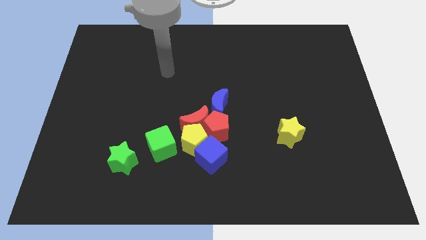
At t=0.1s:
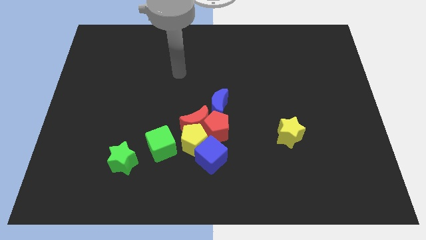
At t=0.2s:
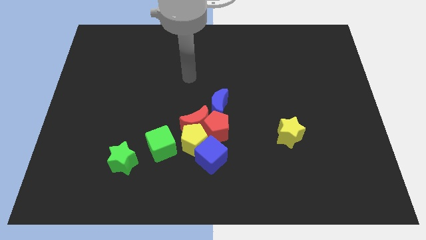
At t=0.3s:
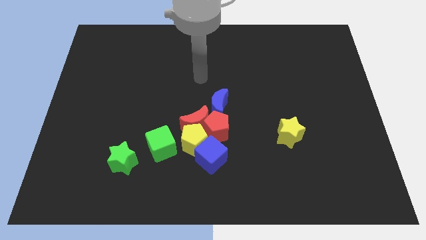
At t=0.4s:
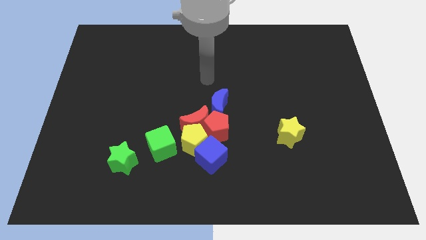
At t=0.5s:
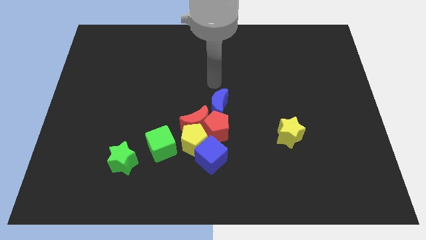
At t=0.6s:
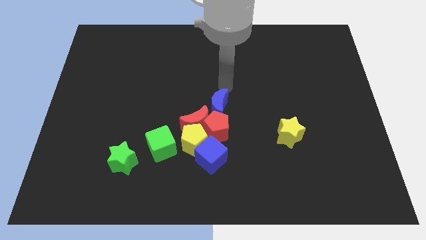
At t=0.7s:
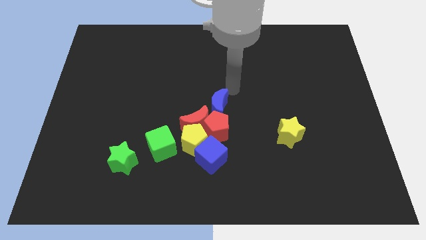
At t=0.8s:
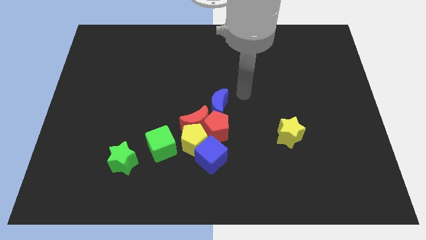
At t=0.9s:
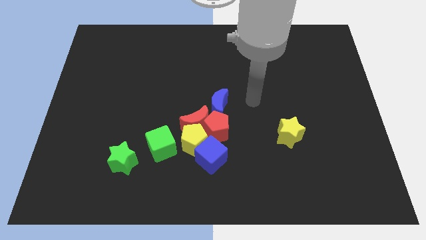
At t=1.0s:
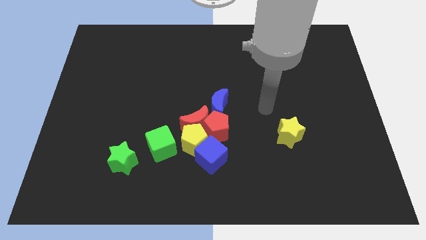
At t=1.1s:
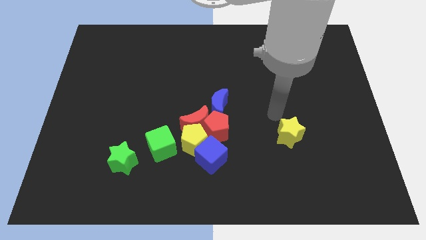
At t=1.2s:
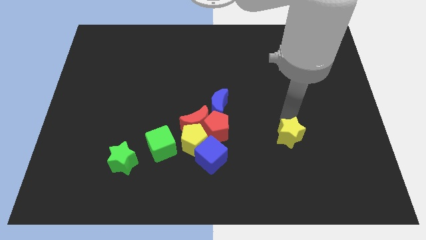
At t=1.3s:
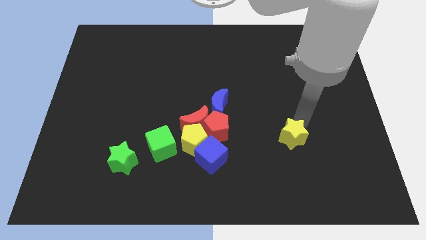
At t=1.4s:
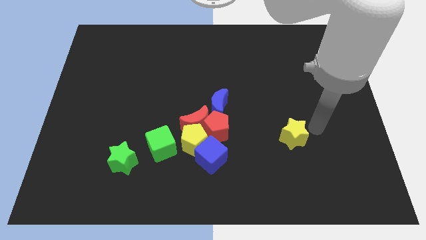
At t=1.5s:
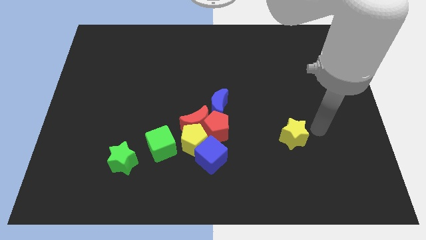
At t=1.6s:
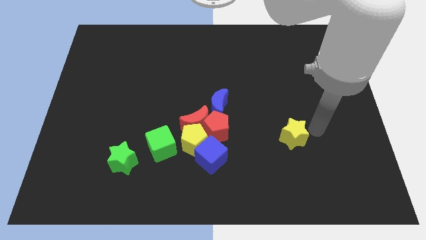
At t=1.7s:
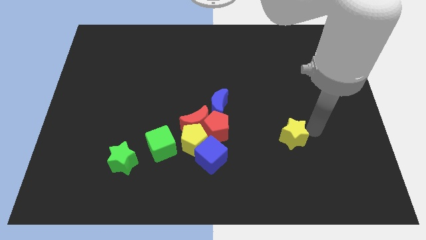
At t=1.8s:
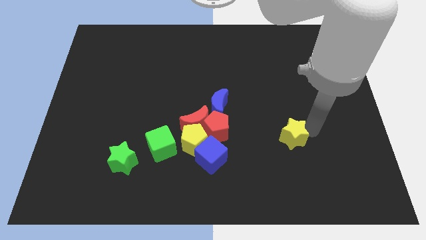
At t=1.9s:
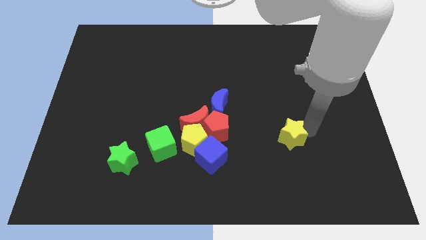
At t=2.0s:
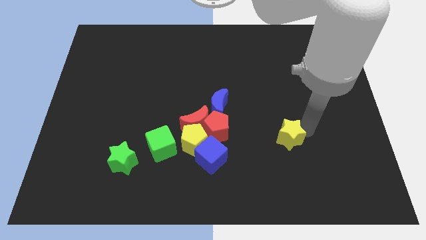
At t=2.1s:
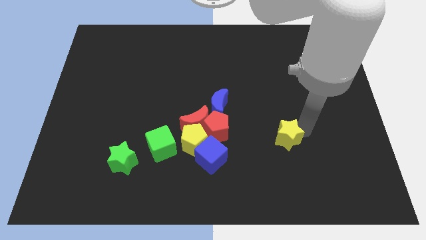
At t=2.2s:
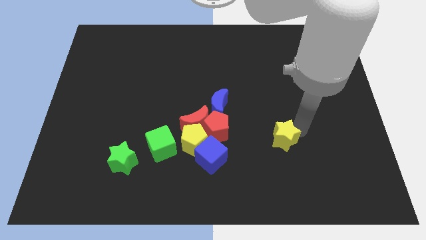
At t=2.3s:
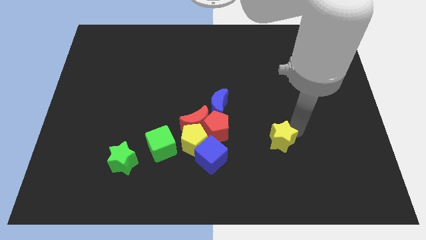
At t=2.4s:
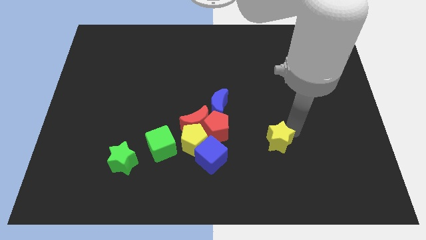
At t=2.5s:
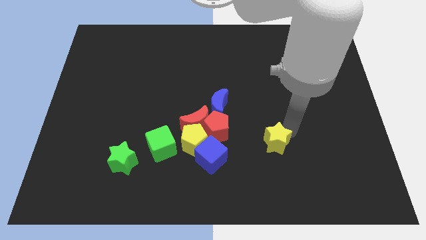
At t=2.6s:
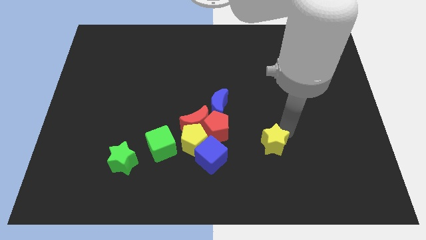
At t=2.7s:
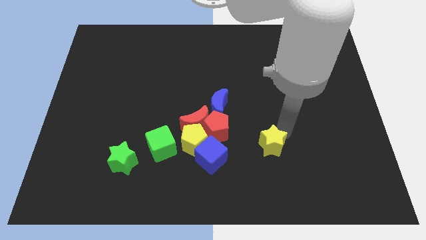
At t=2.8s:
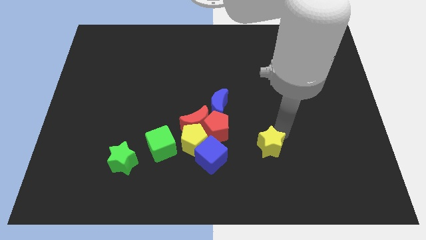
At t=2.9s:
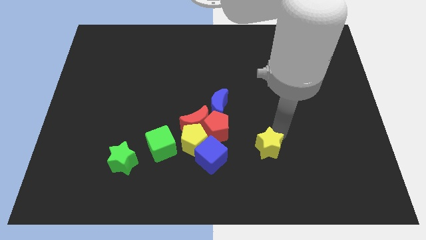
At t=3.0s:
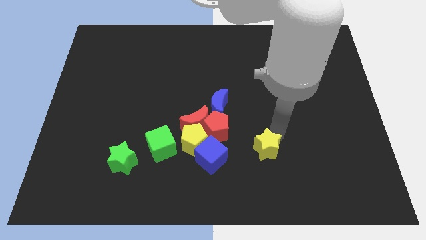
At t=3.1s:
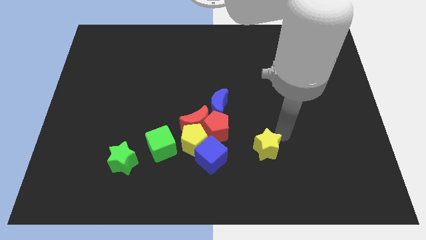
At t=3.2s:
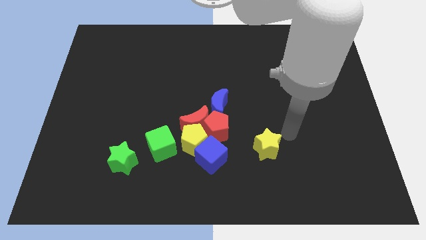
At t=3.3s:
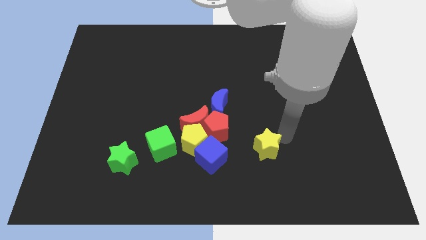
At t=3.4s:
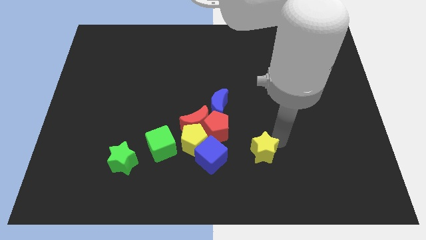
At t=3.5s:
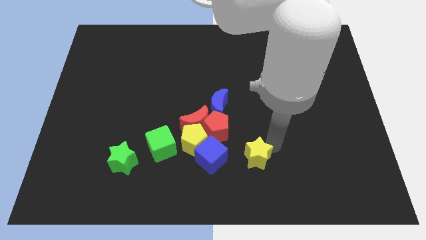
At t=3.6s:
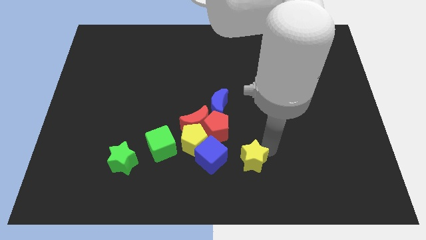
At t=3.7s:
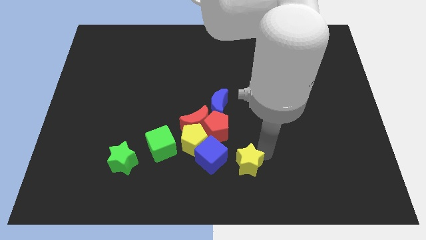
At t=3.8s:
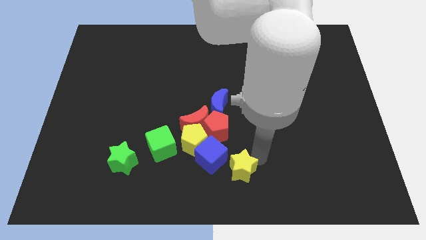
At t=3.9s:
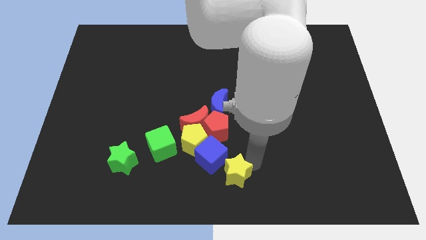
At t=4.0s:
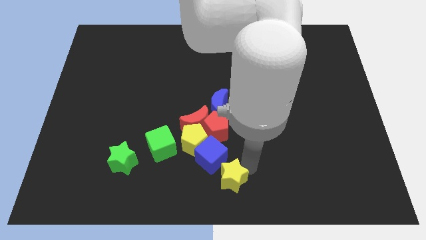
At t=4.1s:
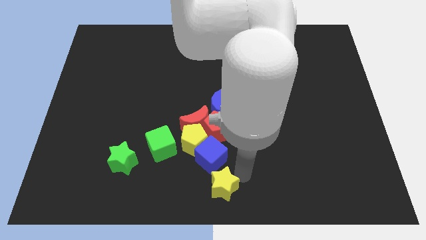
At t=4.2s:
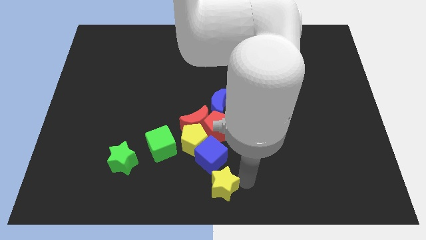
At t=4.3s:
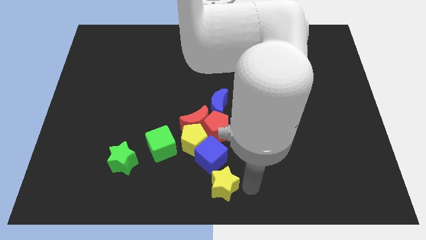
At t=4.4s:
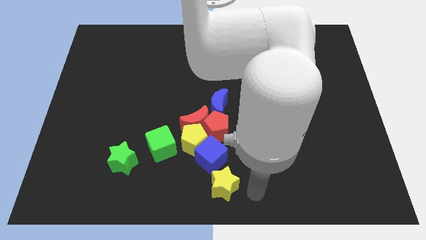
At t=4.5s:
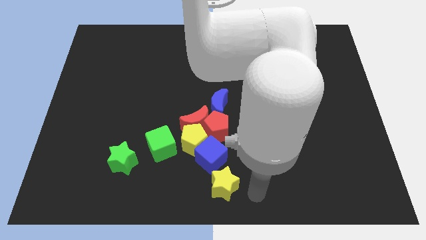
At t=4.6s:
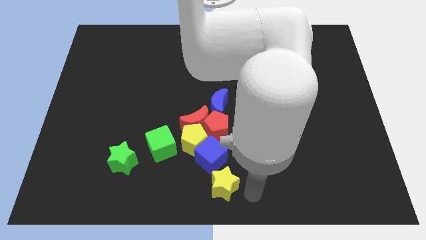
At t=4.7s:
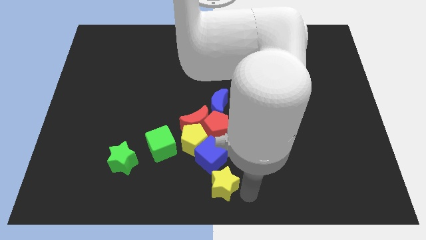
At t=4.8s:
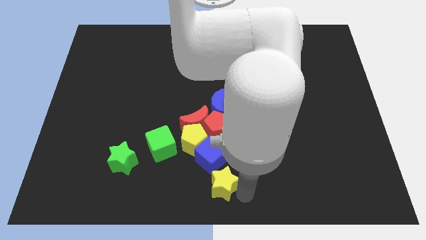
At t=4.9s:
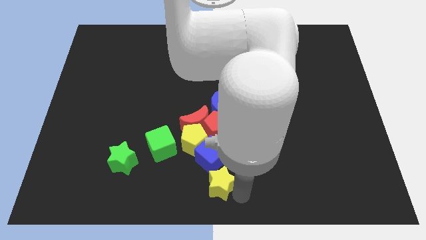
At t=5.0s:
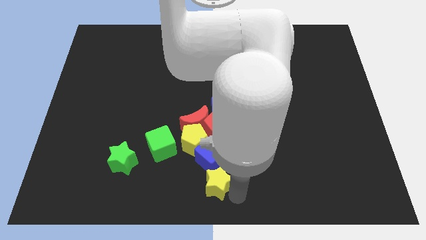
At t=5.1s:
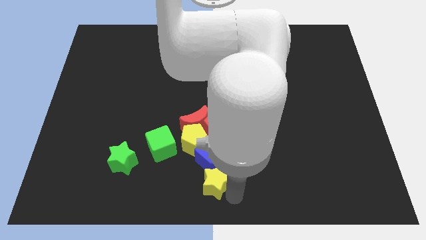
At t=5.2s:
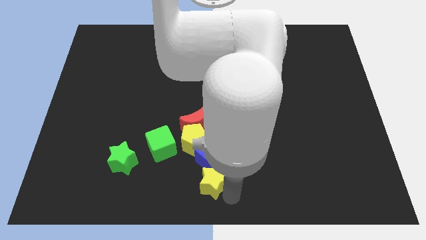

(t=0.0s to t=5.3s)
slide the yellow star to the bottom side of the red moon
